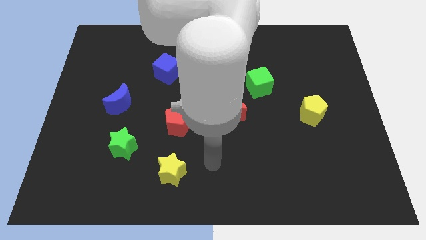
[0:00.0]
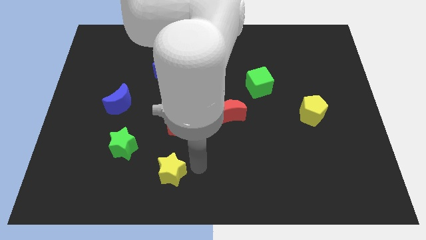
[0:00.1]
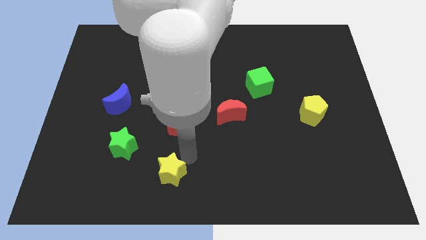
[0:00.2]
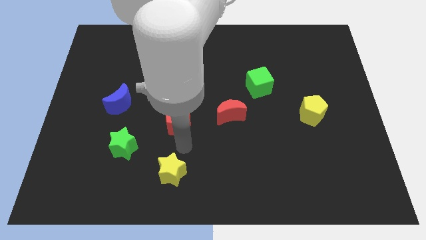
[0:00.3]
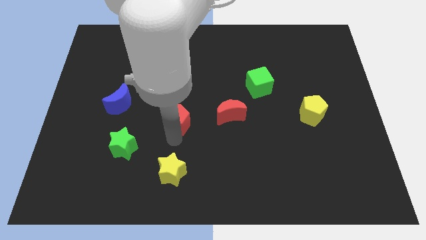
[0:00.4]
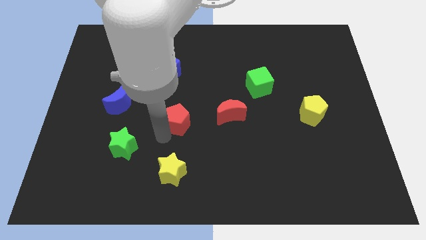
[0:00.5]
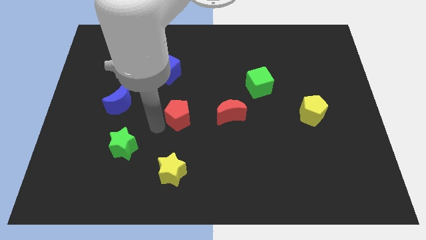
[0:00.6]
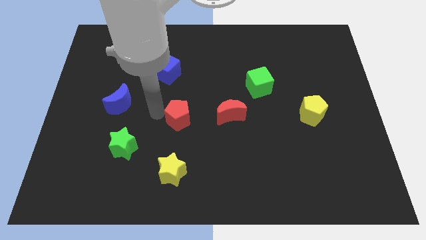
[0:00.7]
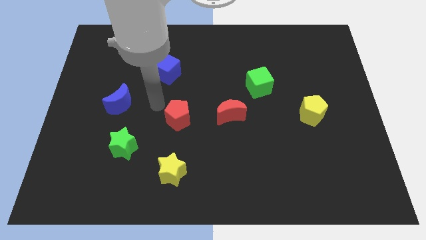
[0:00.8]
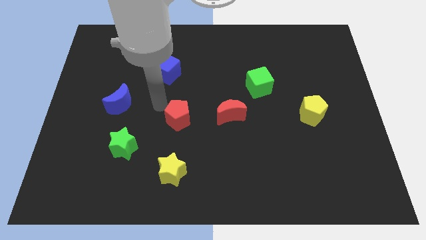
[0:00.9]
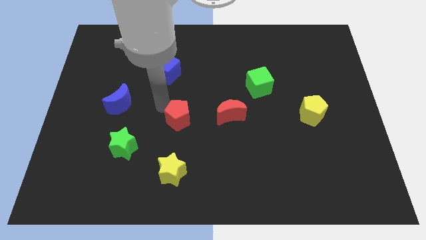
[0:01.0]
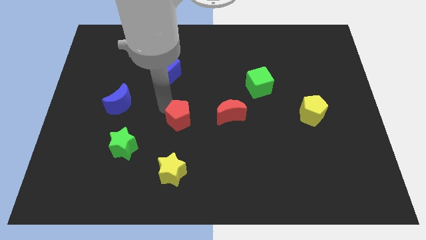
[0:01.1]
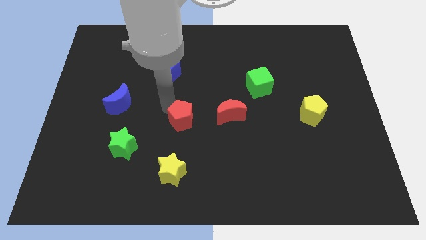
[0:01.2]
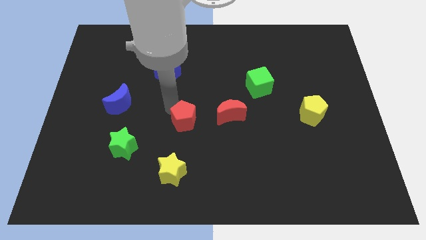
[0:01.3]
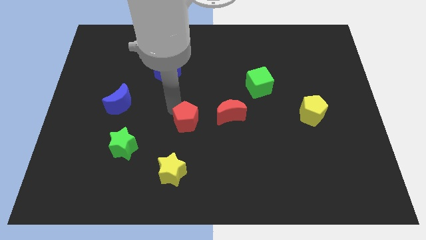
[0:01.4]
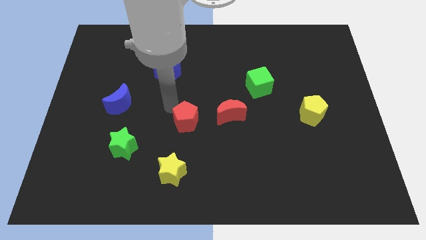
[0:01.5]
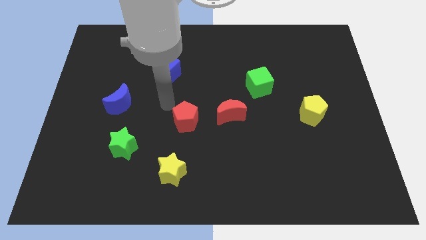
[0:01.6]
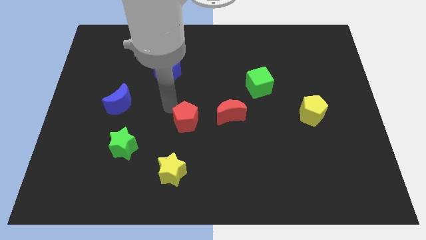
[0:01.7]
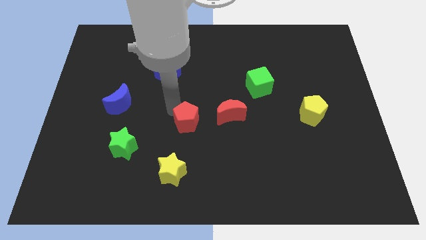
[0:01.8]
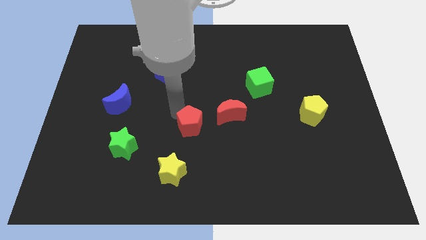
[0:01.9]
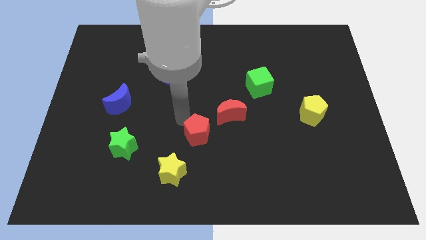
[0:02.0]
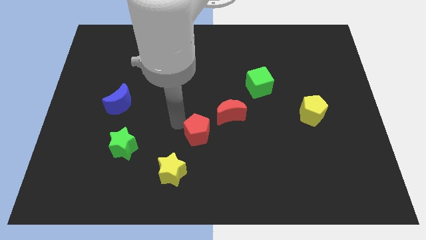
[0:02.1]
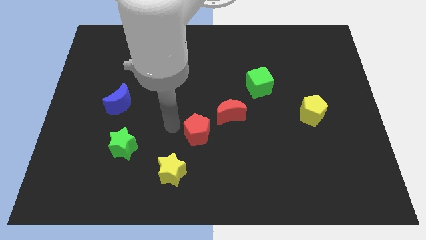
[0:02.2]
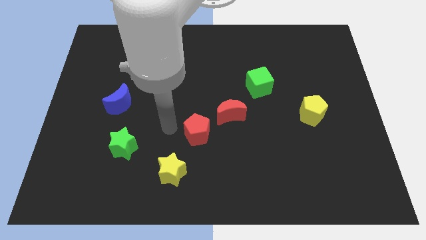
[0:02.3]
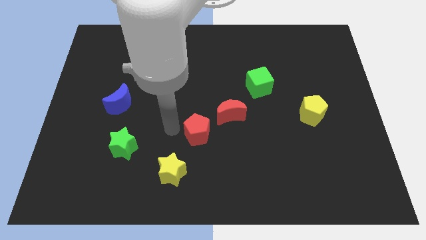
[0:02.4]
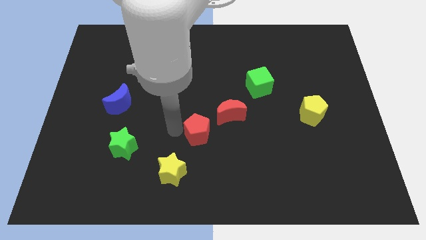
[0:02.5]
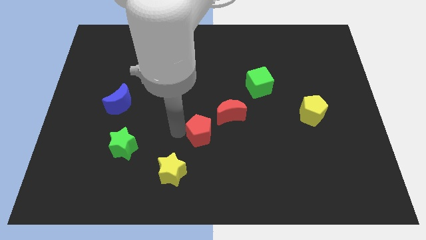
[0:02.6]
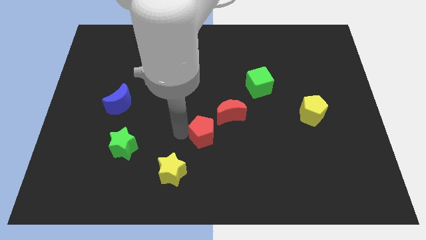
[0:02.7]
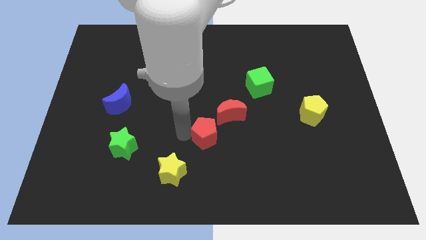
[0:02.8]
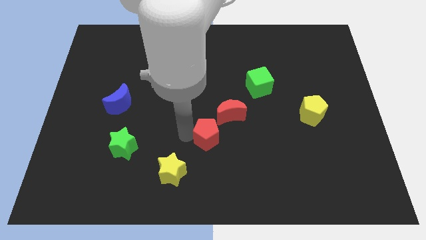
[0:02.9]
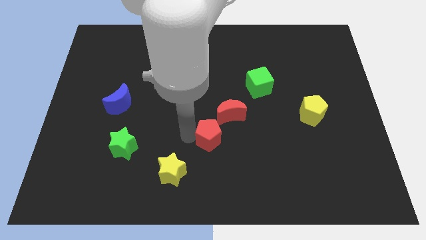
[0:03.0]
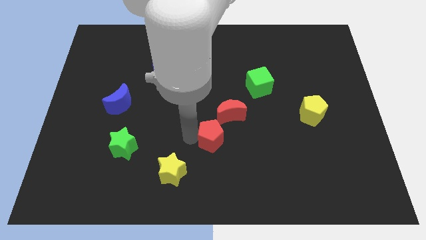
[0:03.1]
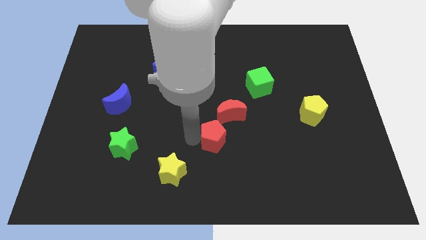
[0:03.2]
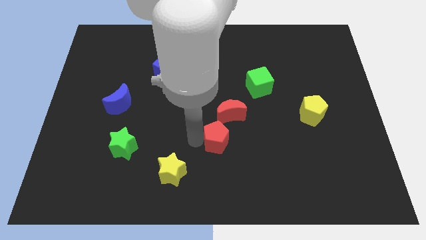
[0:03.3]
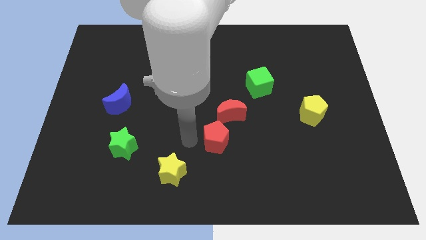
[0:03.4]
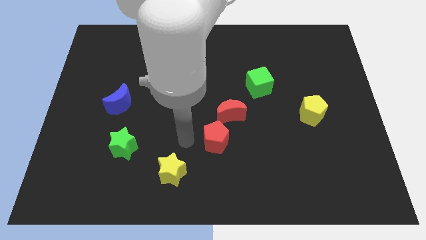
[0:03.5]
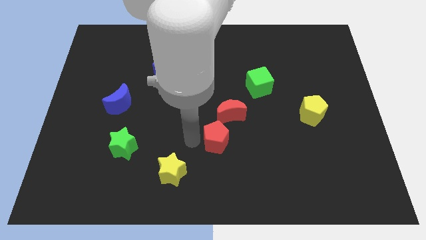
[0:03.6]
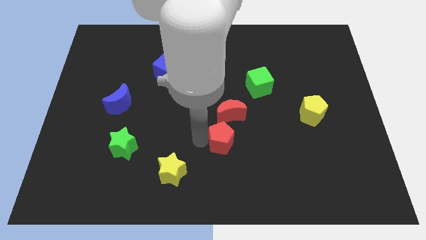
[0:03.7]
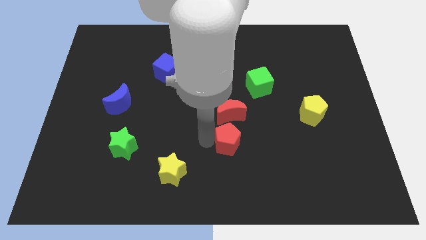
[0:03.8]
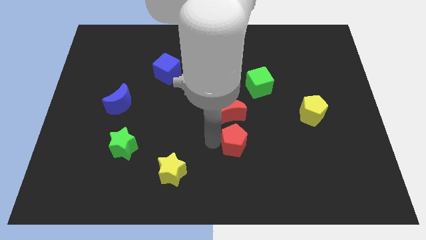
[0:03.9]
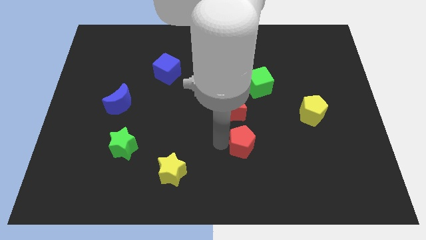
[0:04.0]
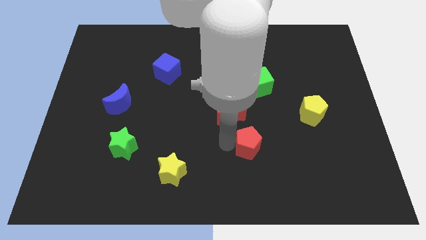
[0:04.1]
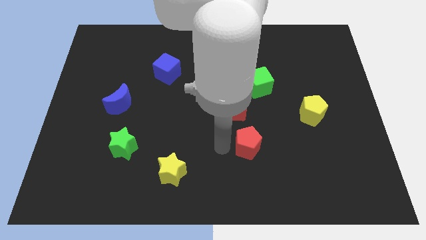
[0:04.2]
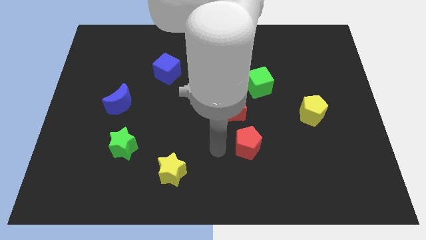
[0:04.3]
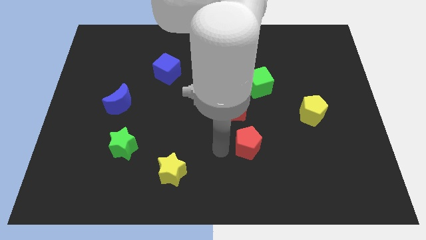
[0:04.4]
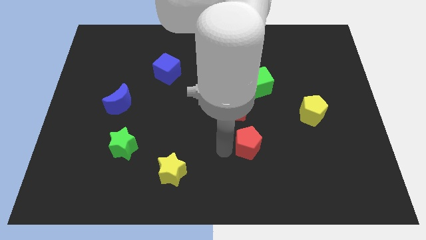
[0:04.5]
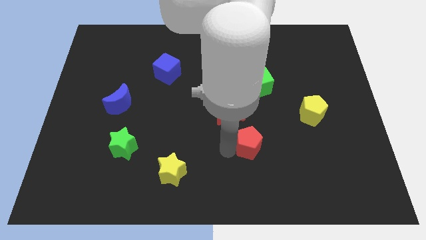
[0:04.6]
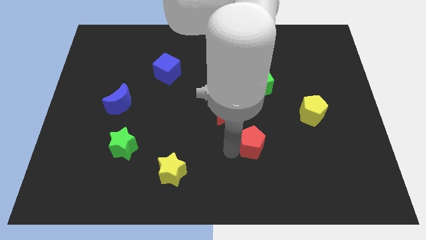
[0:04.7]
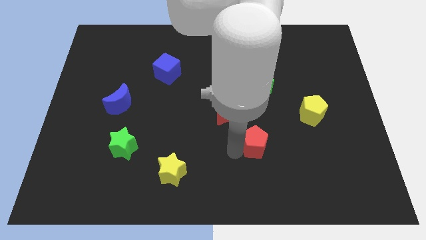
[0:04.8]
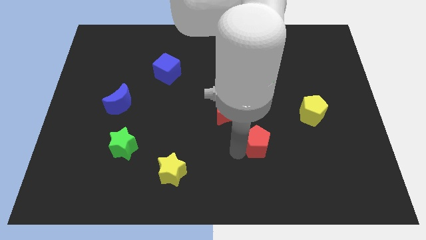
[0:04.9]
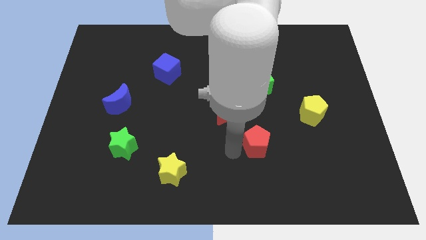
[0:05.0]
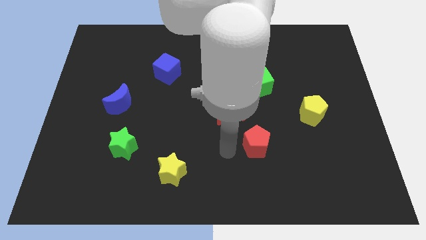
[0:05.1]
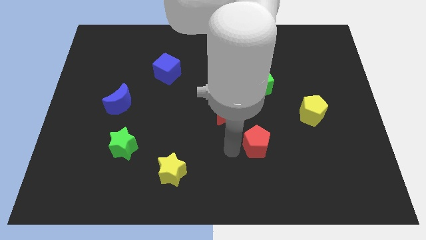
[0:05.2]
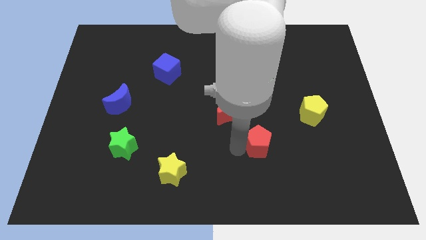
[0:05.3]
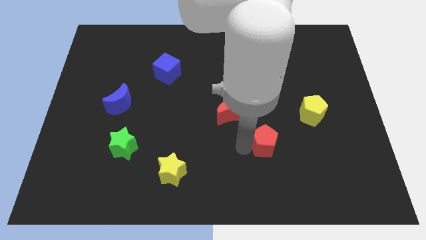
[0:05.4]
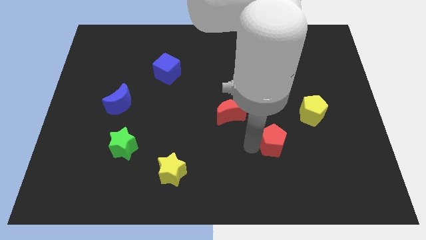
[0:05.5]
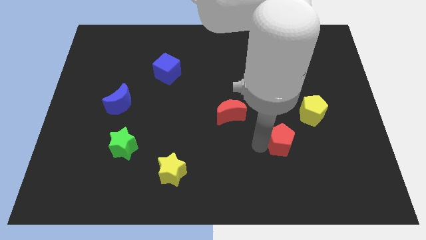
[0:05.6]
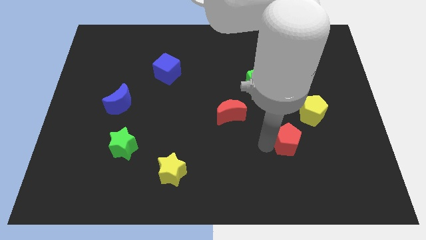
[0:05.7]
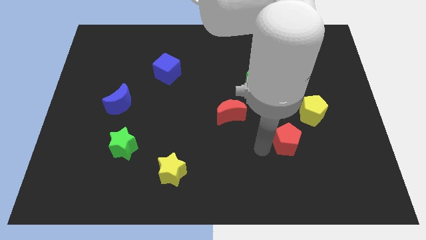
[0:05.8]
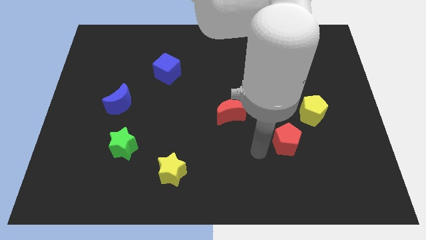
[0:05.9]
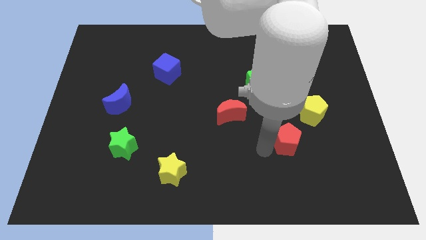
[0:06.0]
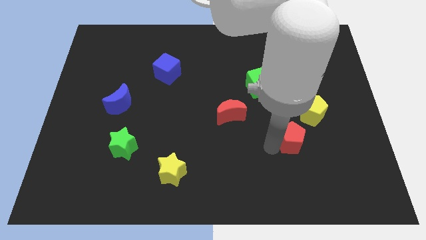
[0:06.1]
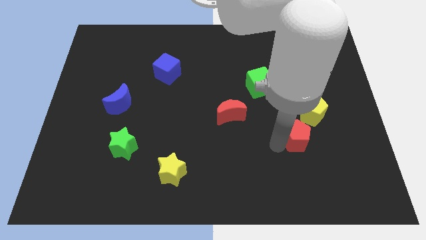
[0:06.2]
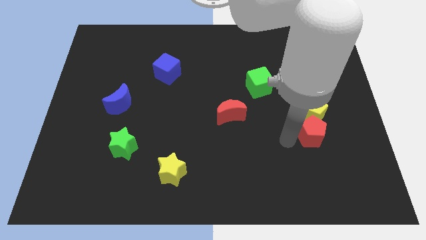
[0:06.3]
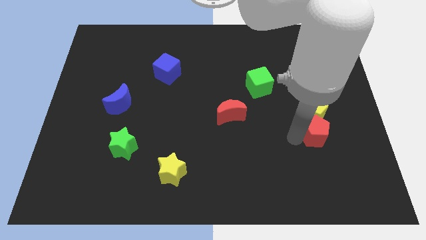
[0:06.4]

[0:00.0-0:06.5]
move the red pentagon to the bottom right of the yellow pentagon

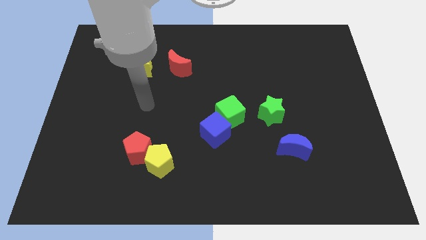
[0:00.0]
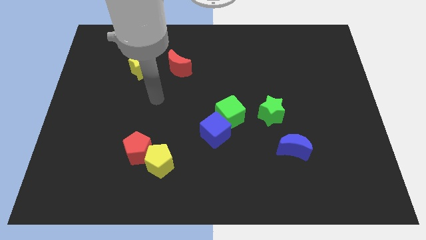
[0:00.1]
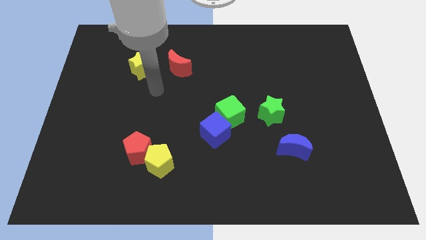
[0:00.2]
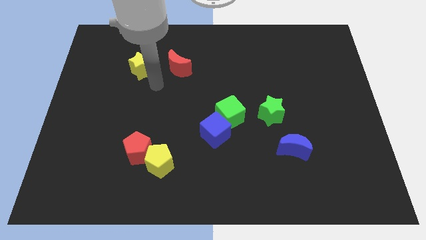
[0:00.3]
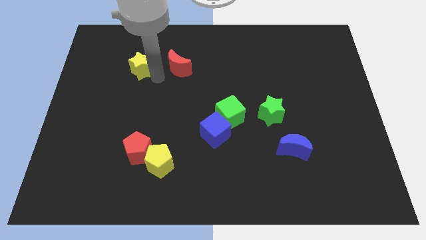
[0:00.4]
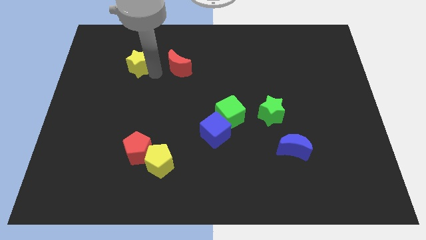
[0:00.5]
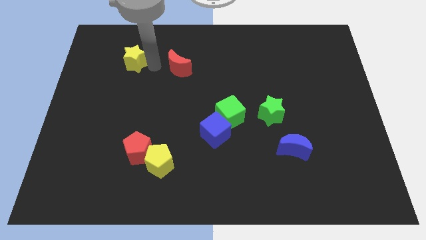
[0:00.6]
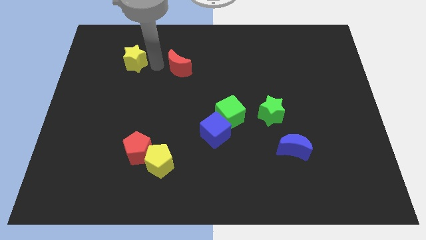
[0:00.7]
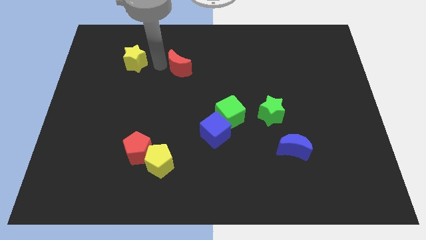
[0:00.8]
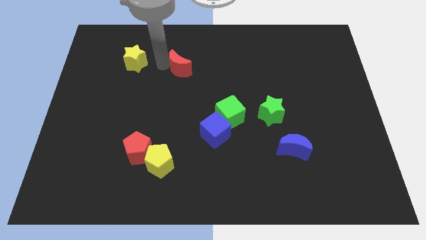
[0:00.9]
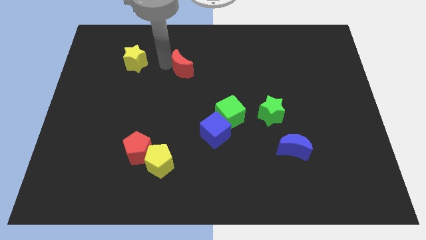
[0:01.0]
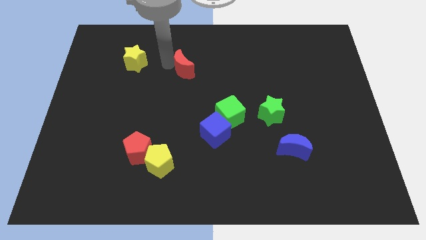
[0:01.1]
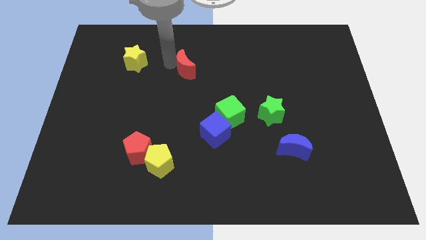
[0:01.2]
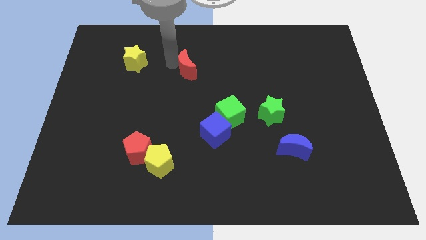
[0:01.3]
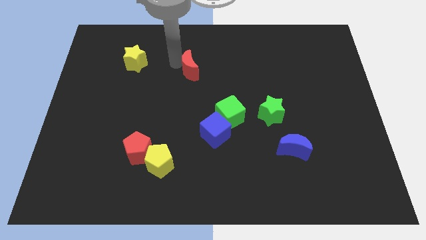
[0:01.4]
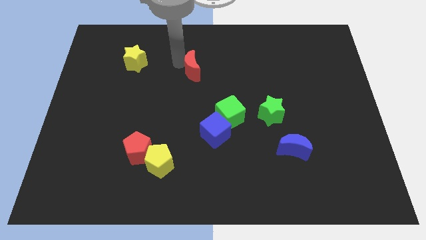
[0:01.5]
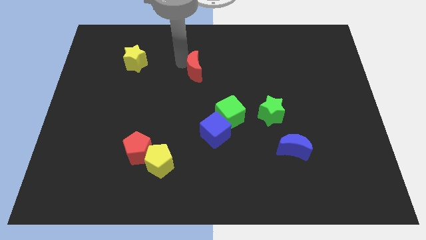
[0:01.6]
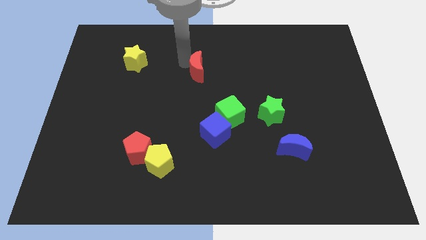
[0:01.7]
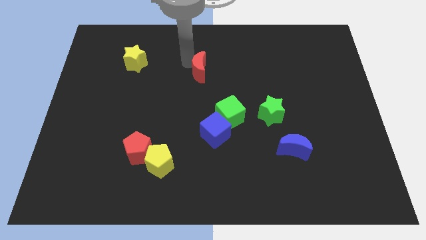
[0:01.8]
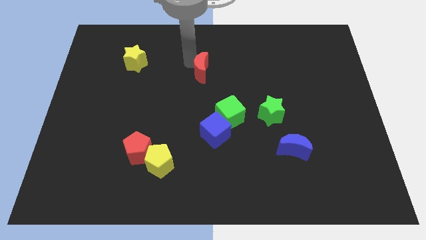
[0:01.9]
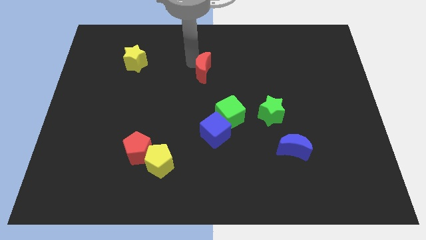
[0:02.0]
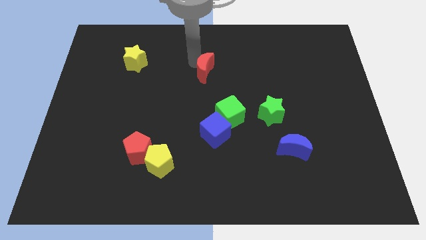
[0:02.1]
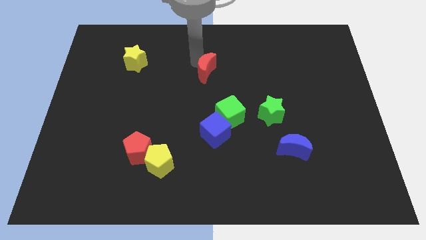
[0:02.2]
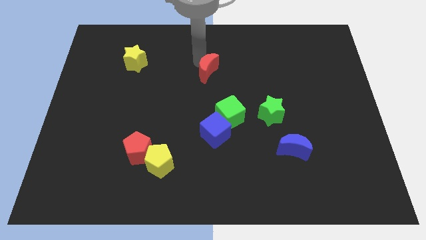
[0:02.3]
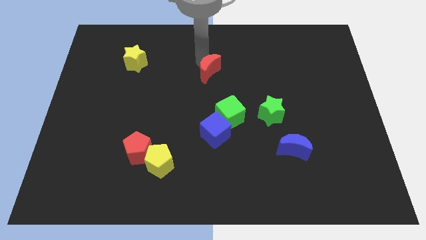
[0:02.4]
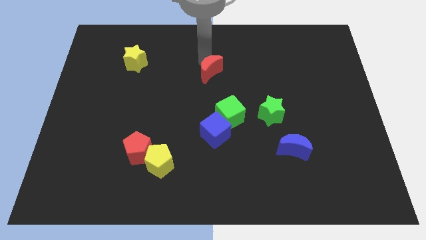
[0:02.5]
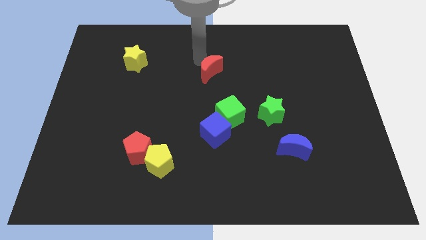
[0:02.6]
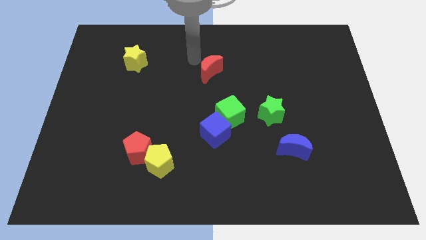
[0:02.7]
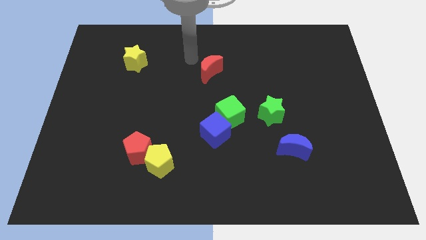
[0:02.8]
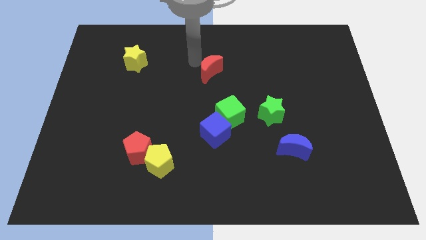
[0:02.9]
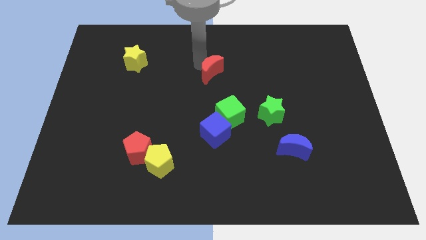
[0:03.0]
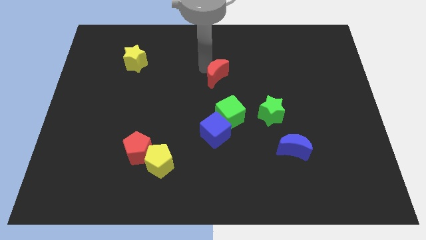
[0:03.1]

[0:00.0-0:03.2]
put the red moon to the top side of the green cube
